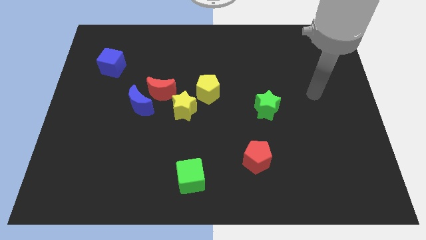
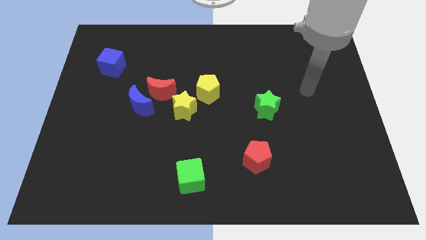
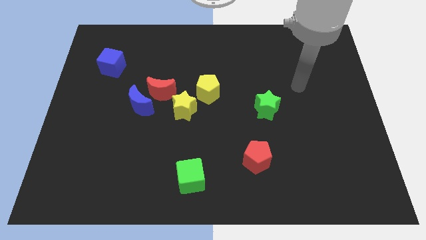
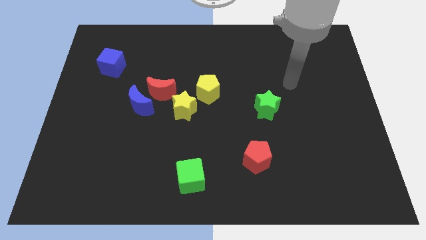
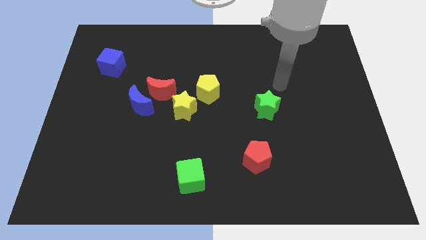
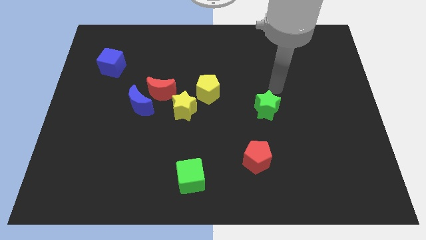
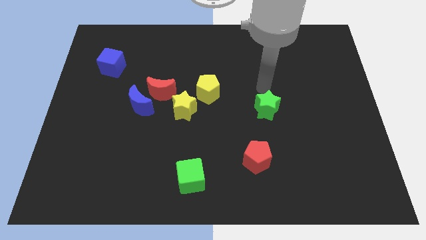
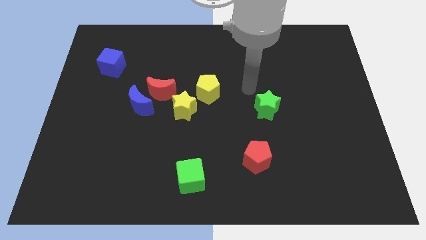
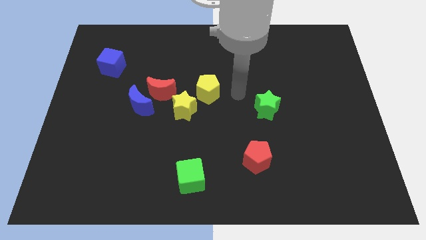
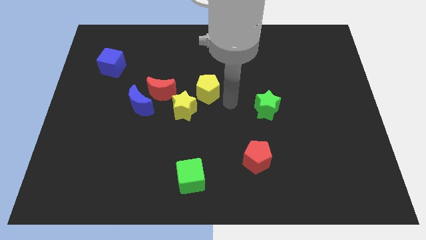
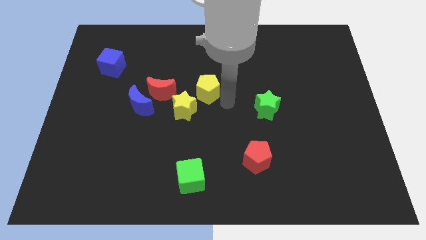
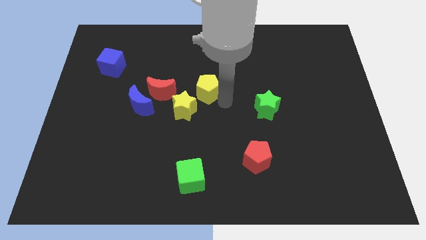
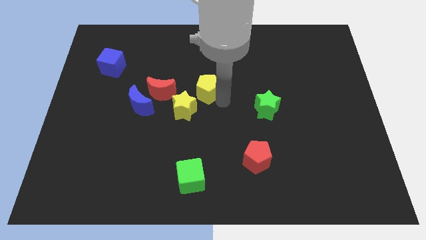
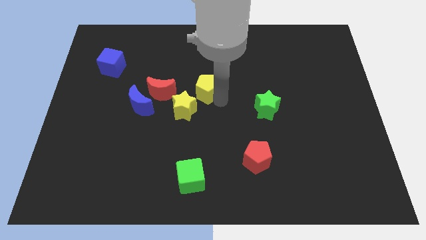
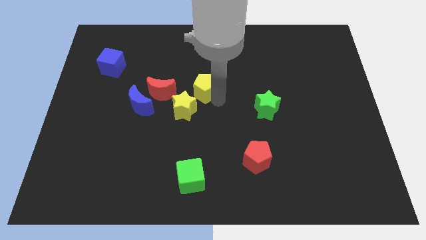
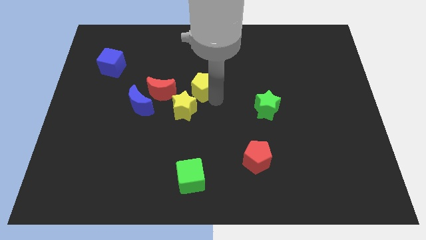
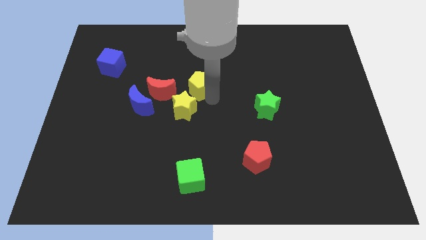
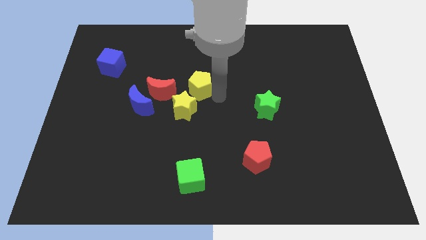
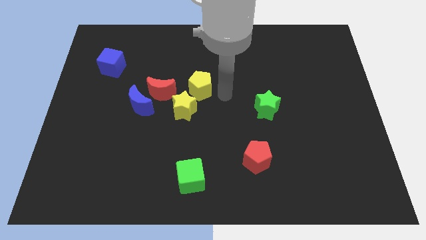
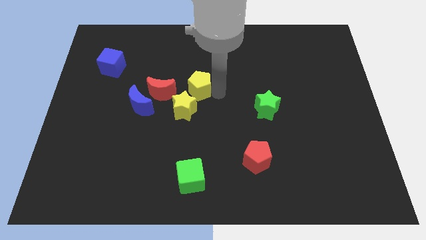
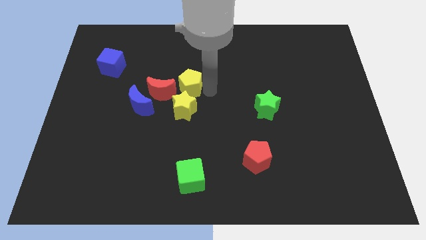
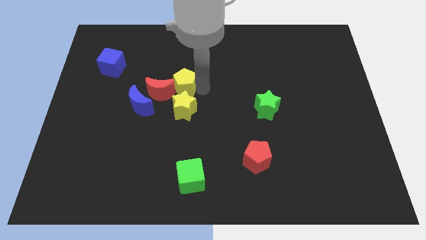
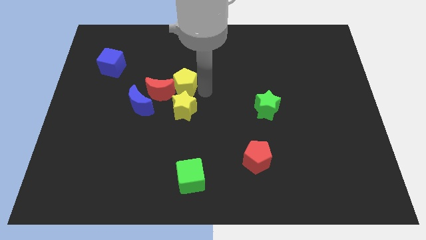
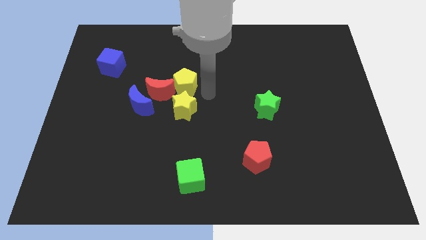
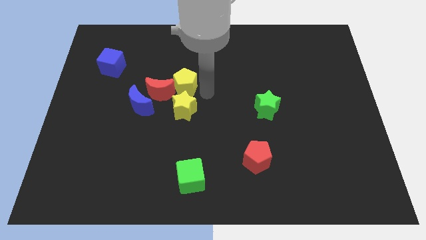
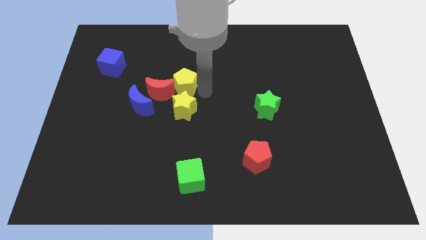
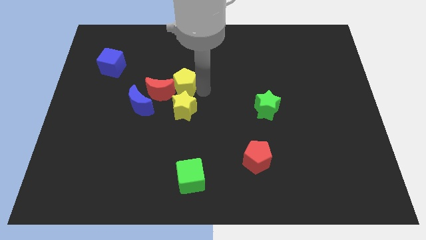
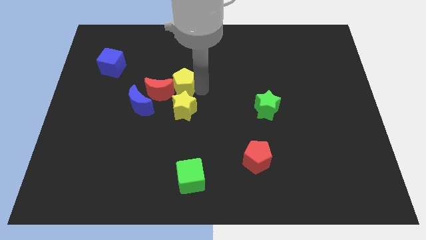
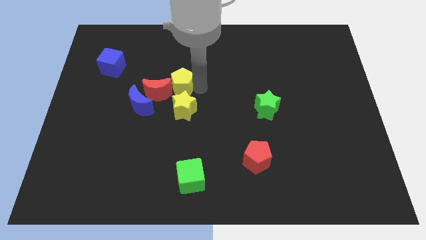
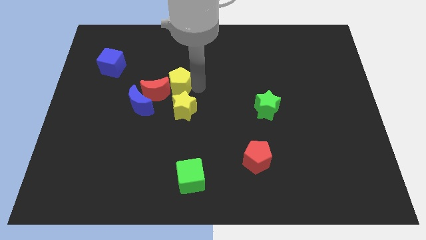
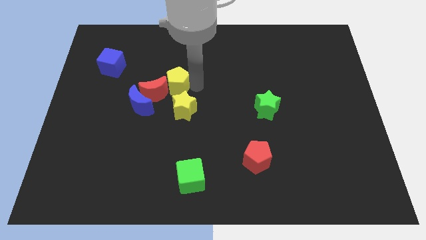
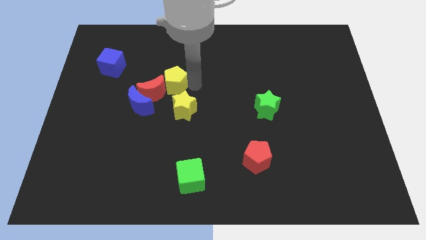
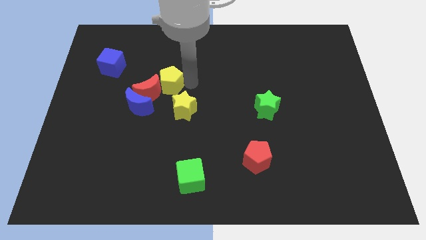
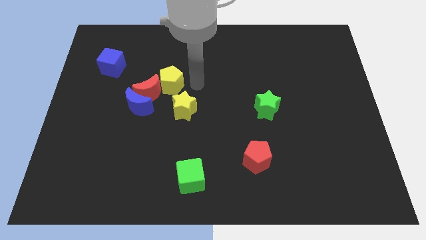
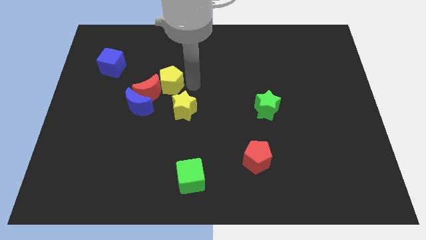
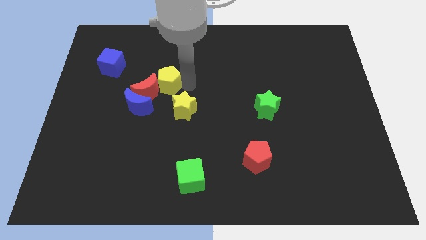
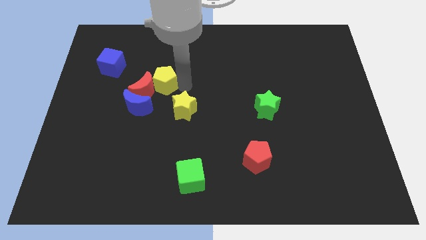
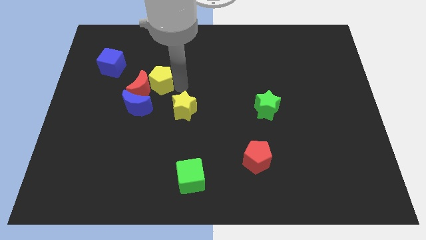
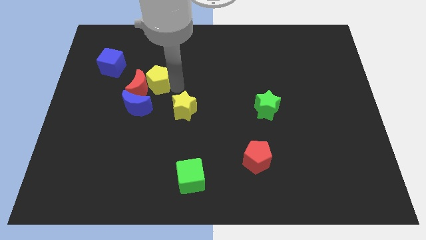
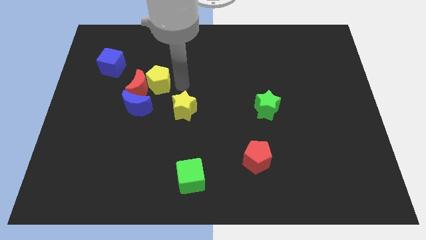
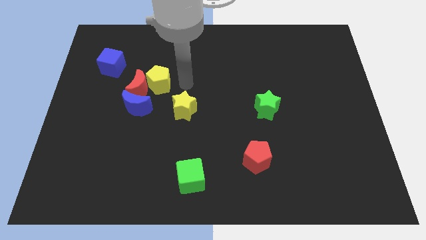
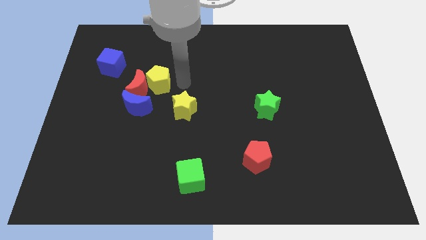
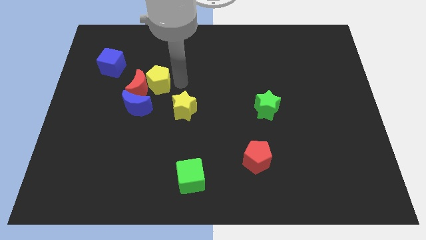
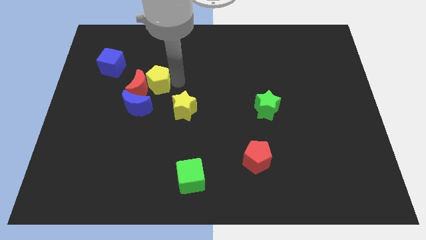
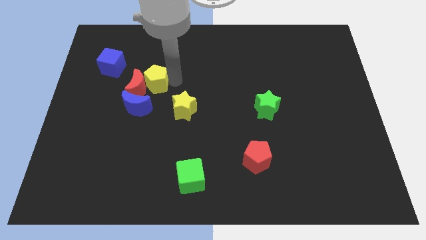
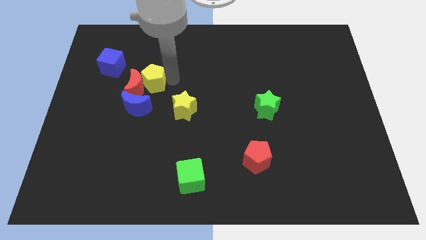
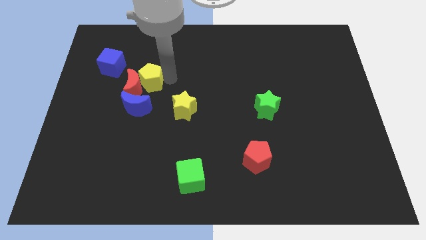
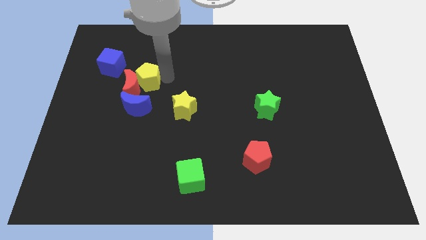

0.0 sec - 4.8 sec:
put the yellow pentagon to the bottom right side of the blue cube

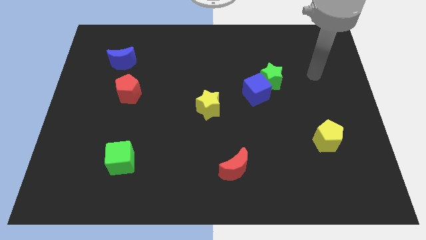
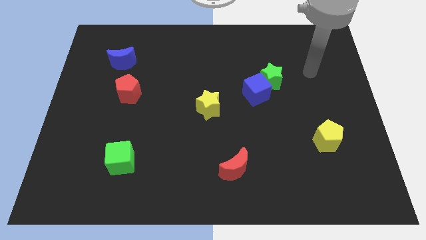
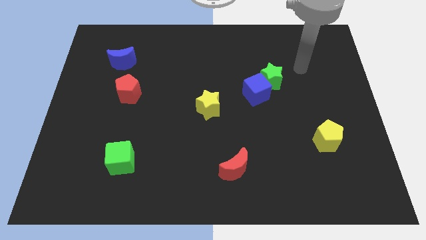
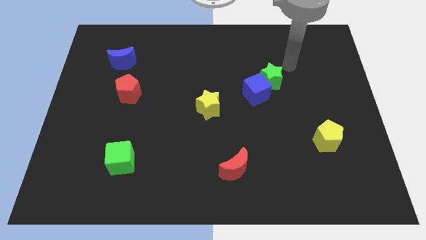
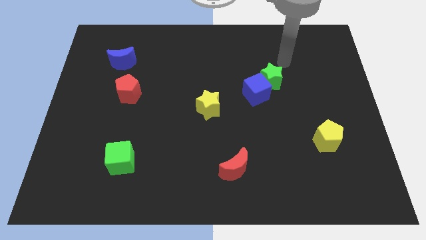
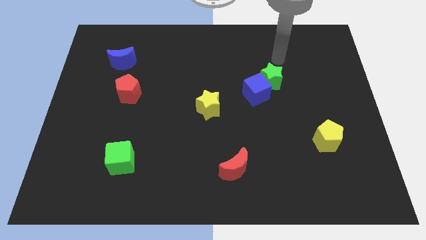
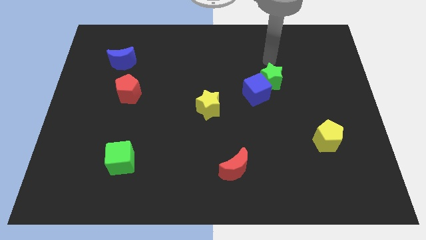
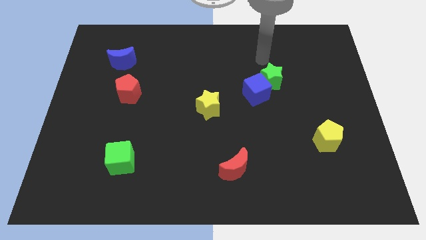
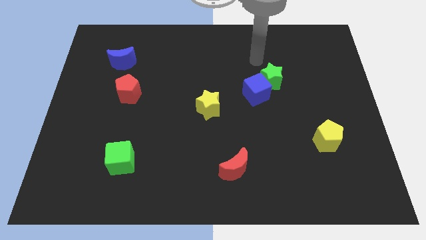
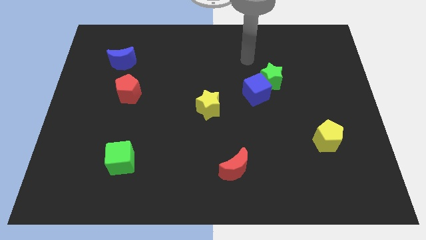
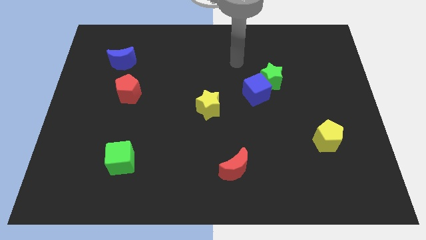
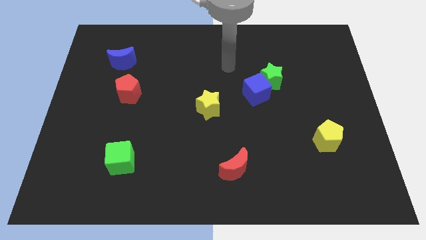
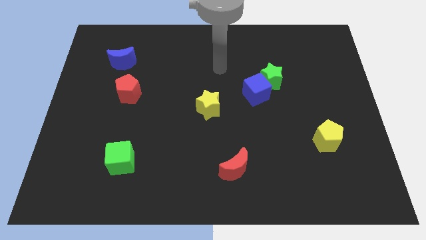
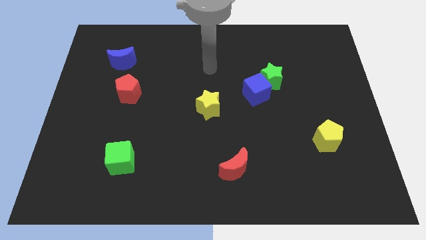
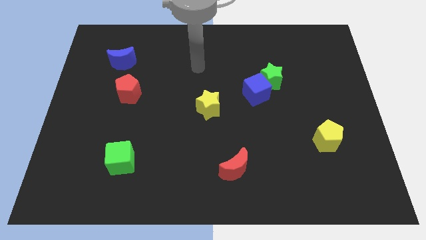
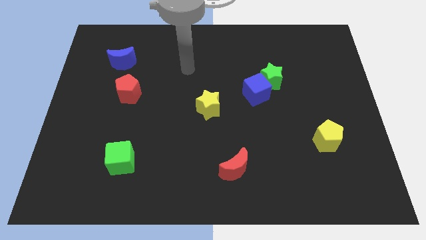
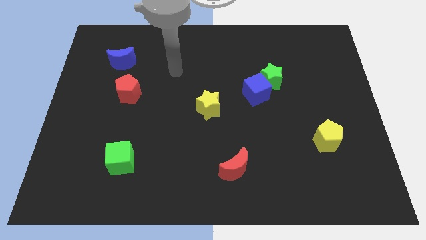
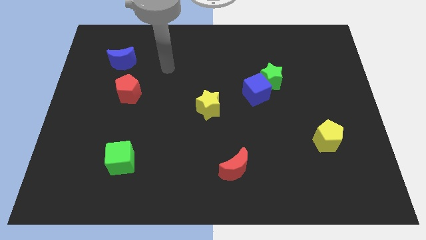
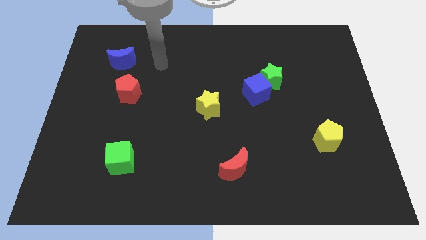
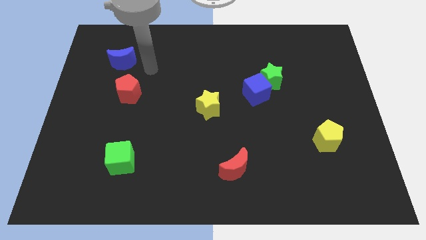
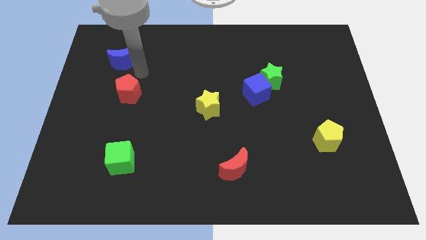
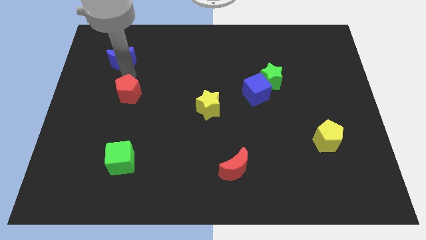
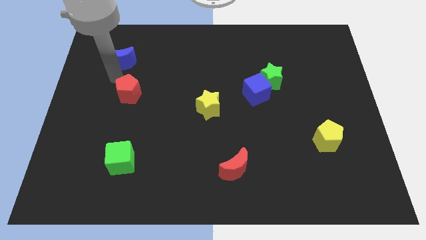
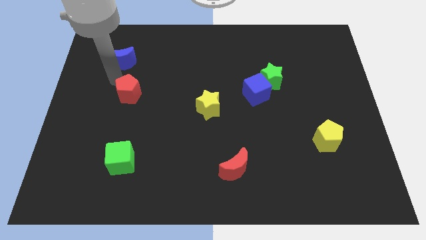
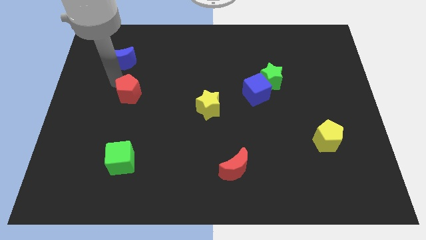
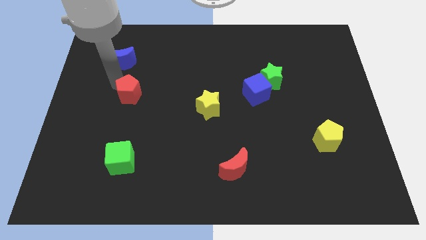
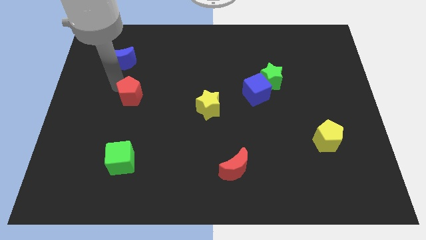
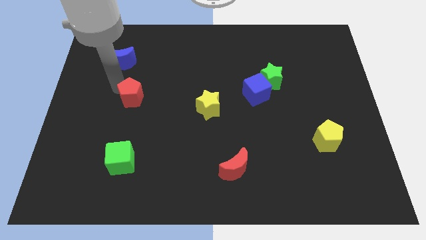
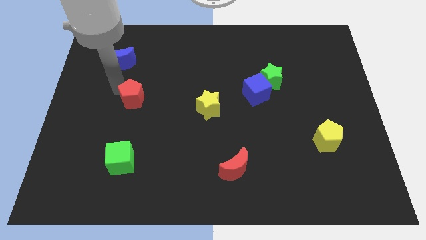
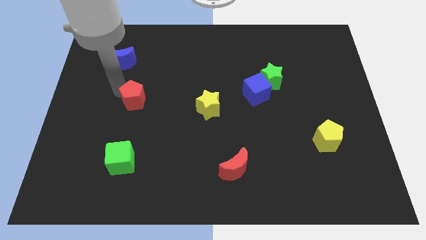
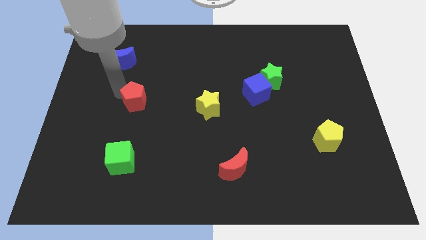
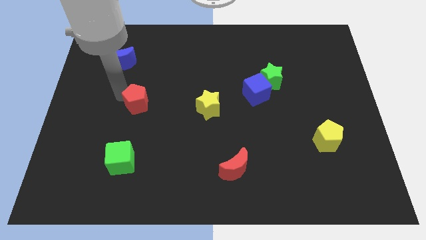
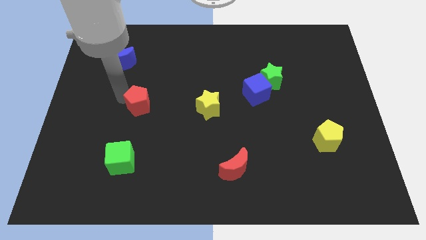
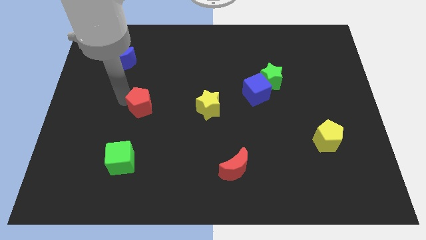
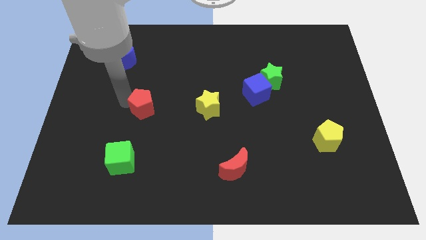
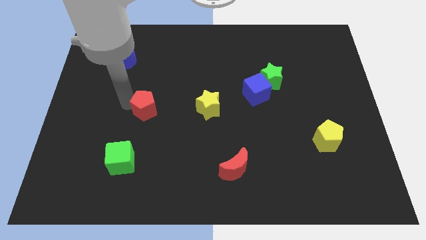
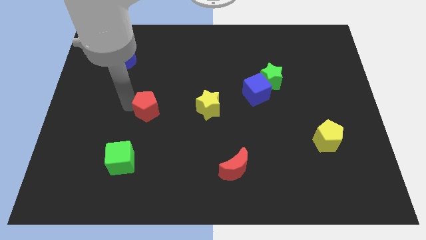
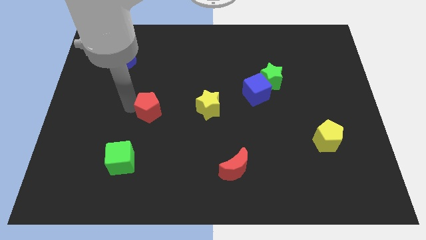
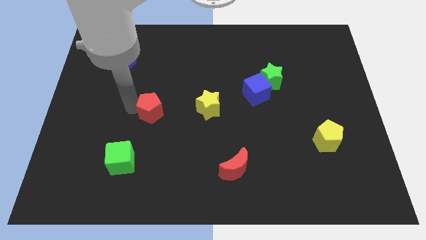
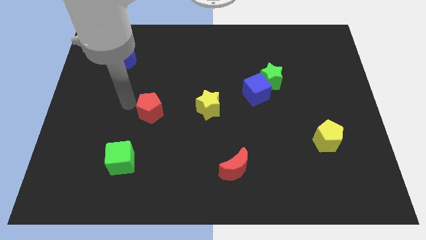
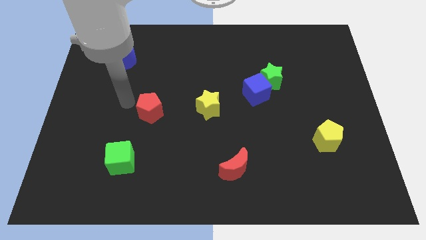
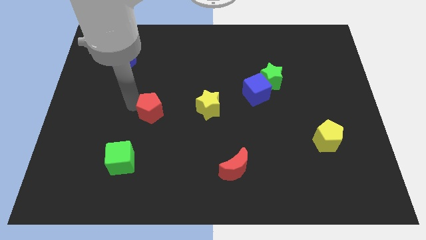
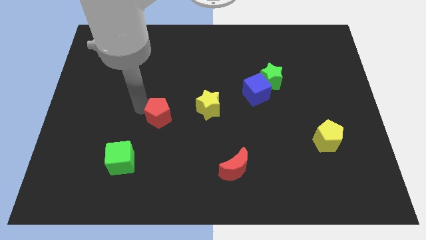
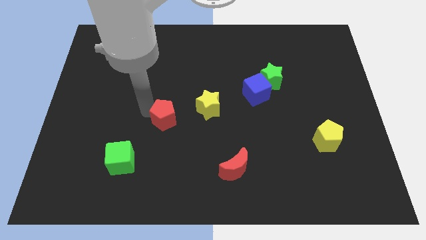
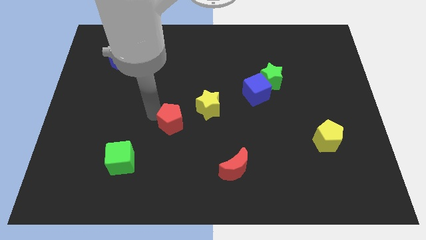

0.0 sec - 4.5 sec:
put the red pentagon to the bottom left side of the yellow star
